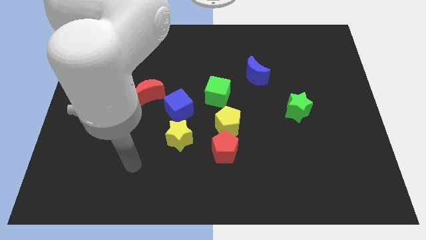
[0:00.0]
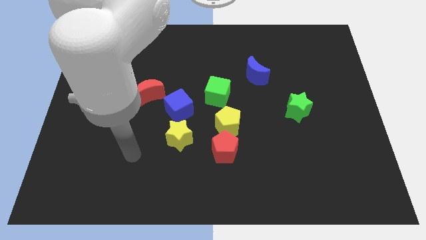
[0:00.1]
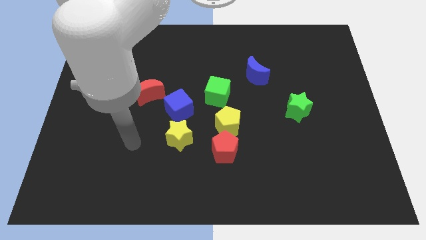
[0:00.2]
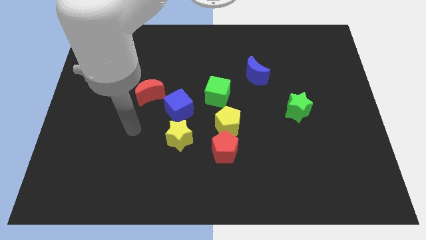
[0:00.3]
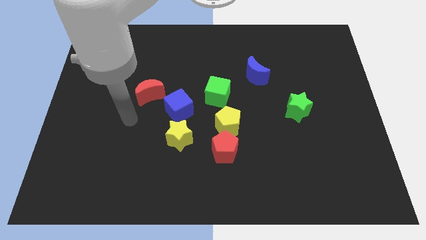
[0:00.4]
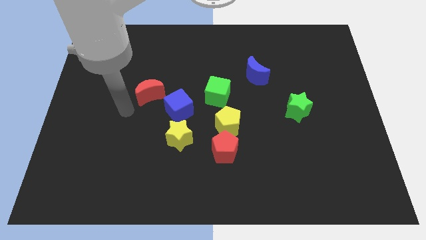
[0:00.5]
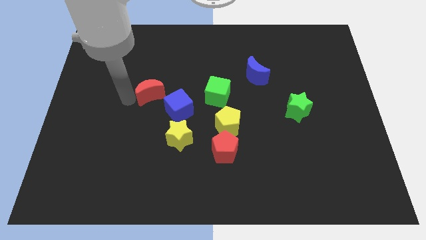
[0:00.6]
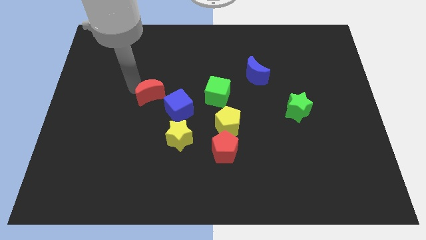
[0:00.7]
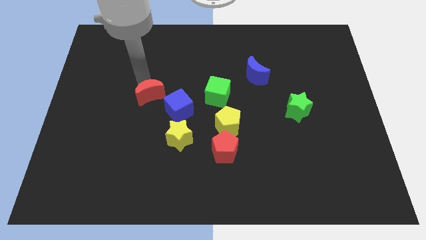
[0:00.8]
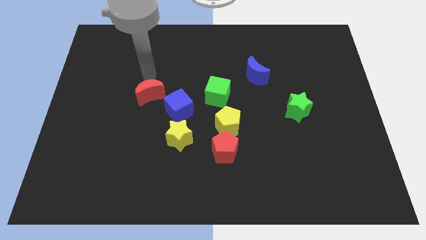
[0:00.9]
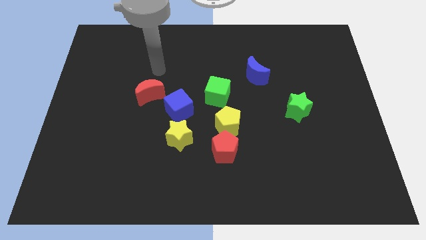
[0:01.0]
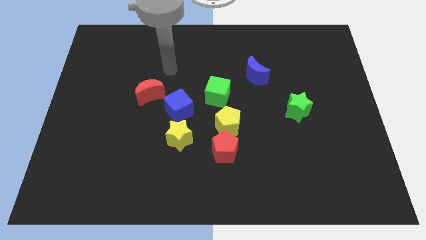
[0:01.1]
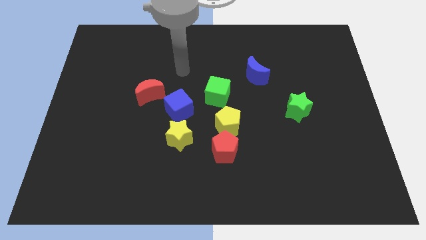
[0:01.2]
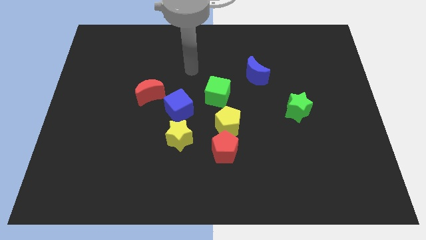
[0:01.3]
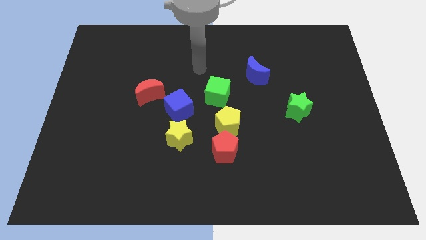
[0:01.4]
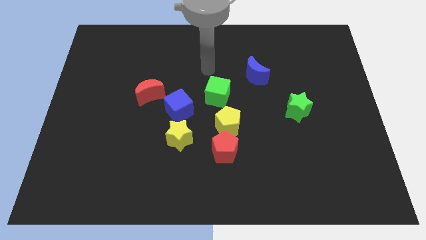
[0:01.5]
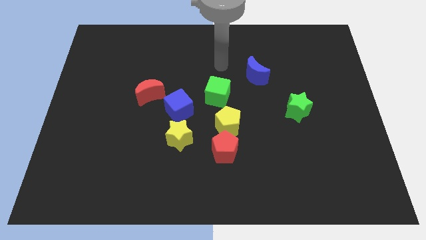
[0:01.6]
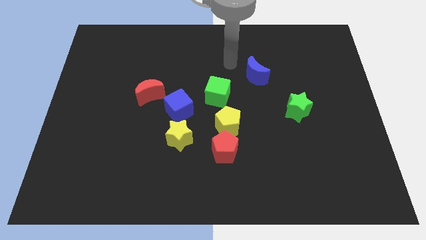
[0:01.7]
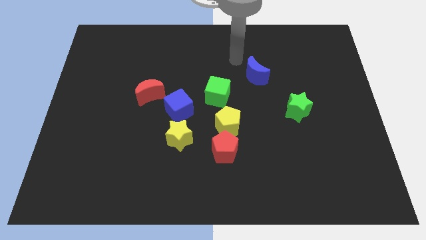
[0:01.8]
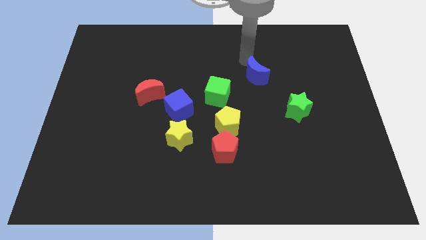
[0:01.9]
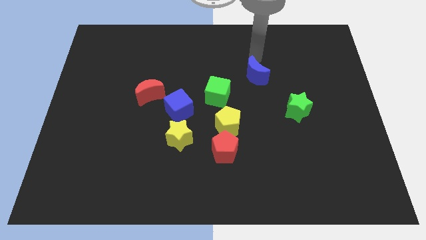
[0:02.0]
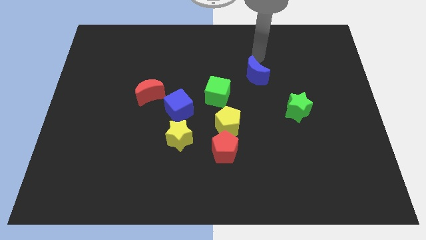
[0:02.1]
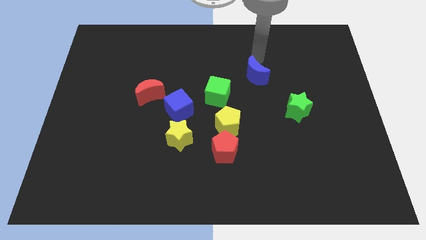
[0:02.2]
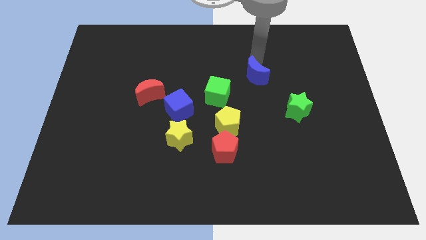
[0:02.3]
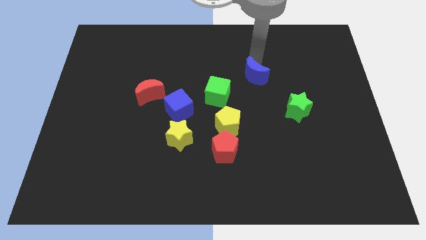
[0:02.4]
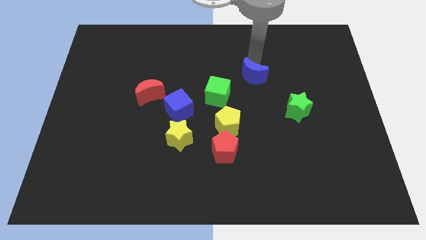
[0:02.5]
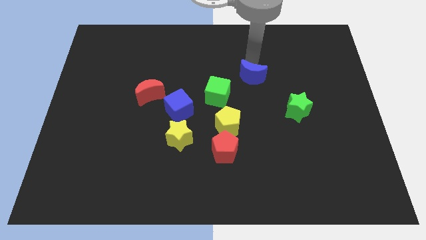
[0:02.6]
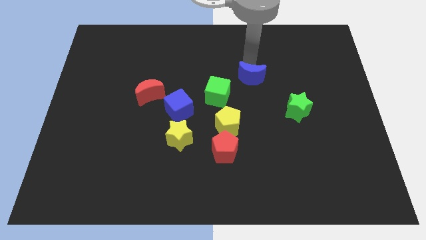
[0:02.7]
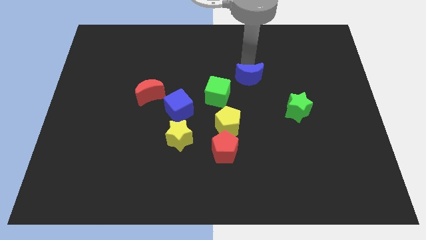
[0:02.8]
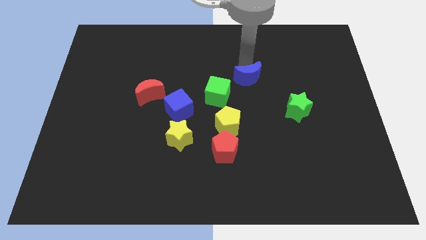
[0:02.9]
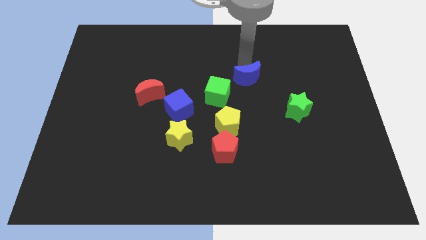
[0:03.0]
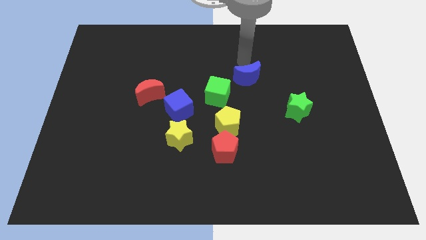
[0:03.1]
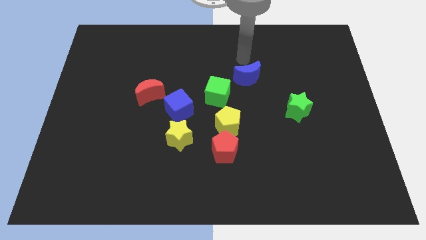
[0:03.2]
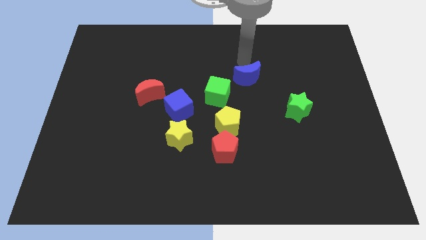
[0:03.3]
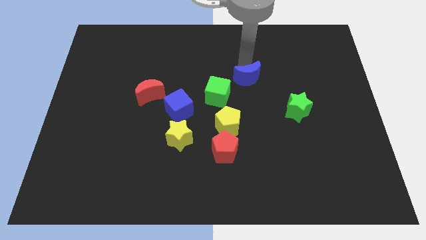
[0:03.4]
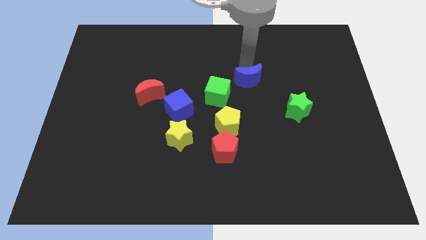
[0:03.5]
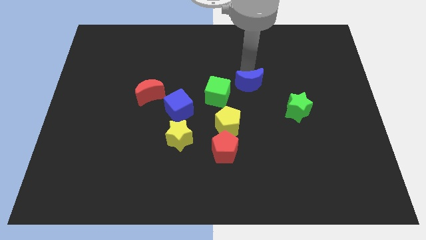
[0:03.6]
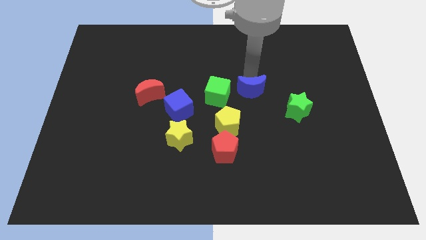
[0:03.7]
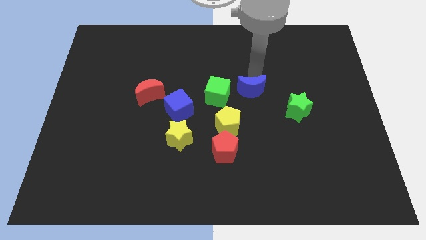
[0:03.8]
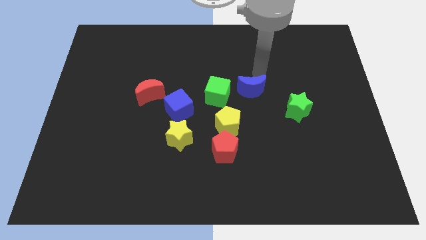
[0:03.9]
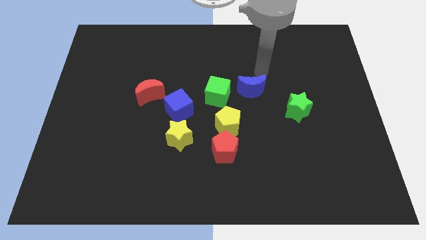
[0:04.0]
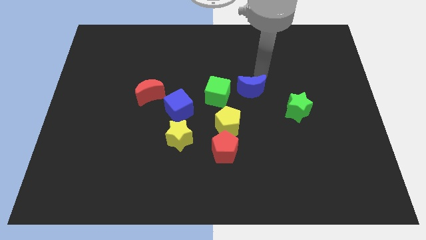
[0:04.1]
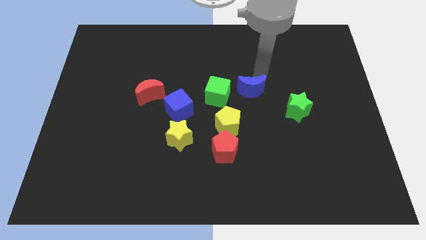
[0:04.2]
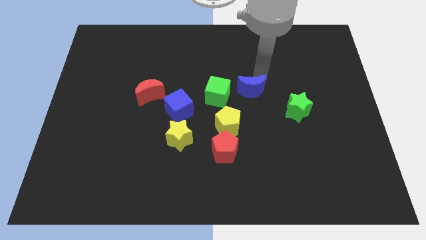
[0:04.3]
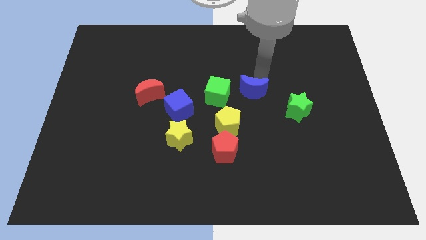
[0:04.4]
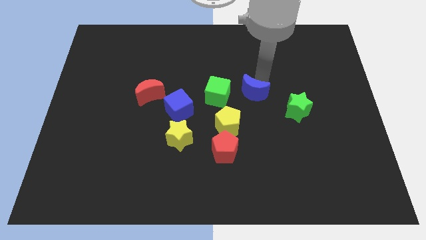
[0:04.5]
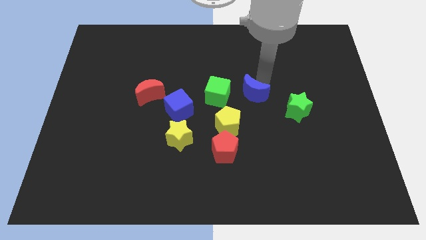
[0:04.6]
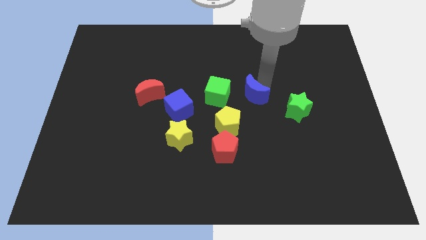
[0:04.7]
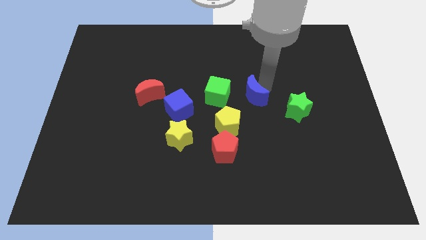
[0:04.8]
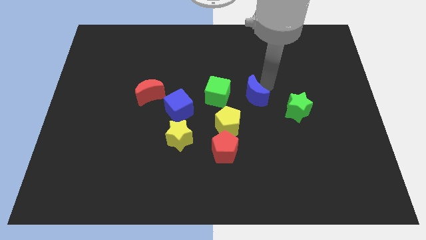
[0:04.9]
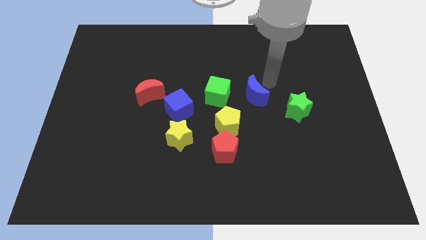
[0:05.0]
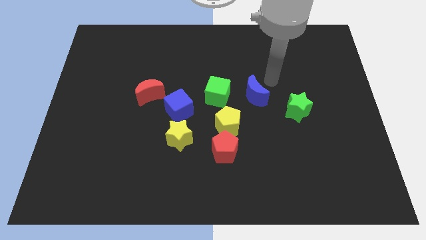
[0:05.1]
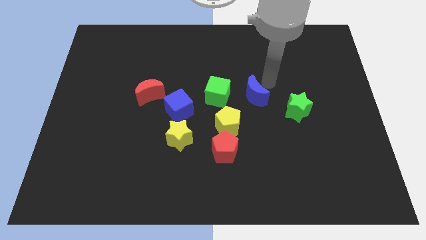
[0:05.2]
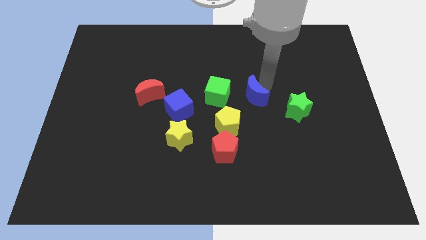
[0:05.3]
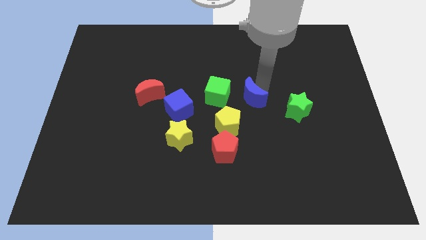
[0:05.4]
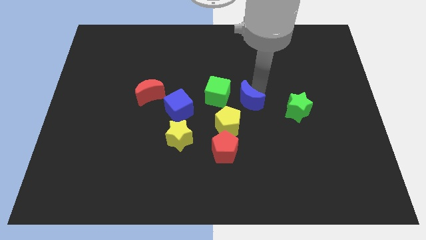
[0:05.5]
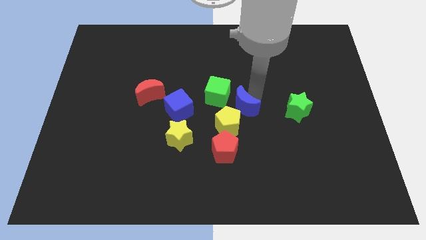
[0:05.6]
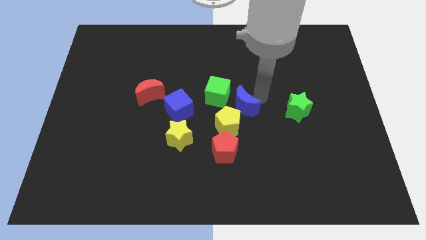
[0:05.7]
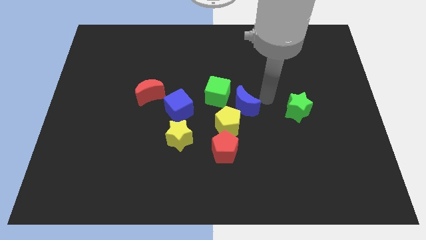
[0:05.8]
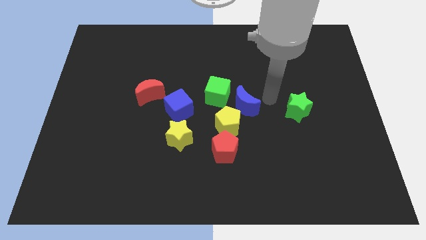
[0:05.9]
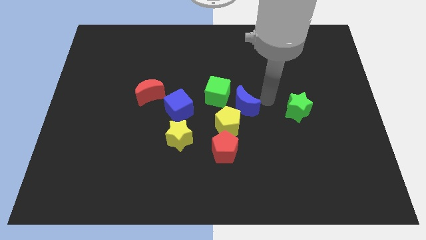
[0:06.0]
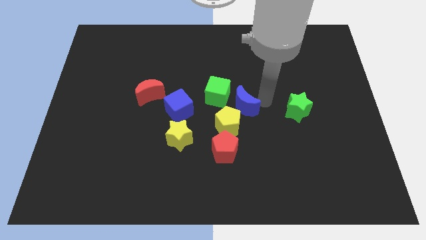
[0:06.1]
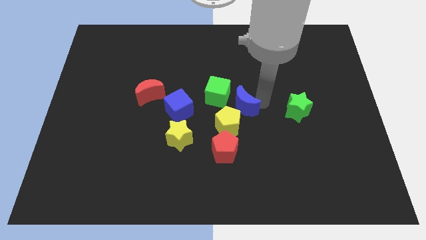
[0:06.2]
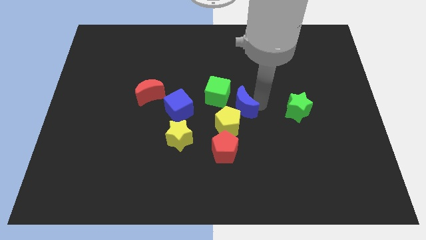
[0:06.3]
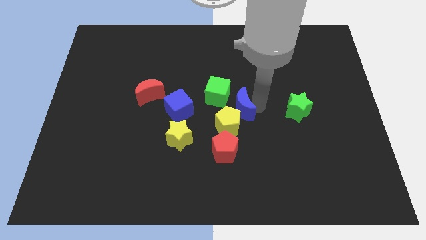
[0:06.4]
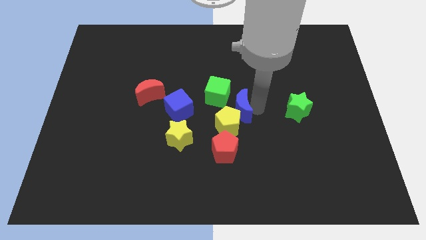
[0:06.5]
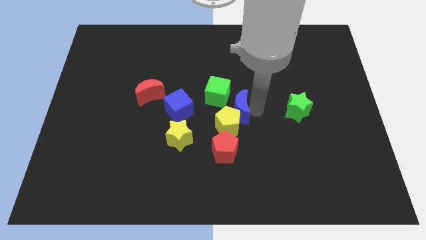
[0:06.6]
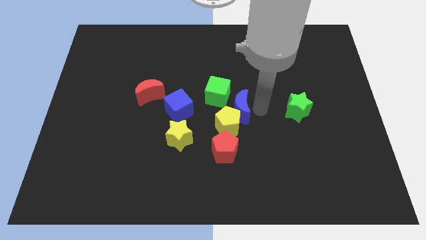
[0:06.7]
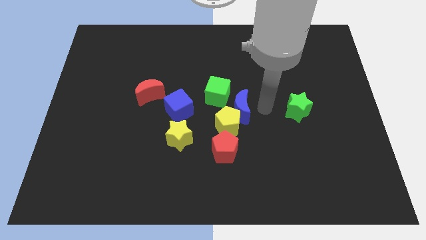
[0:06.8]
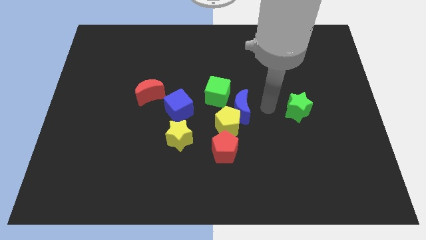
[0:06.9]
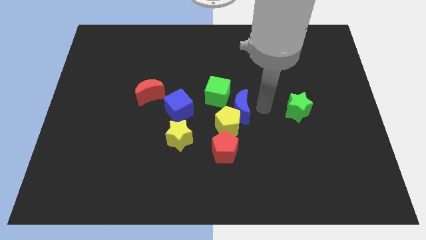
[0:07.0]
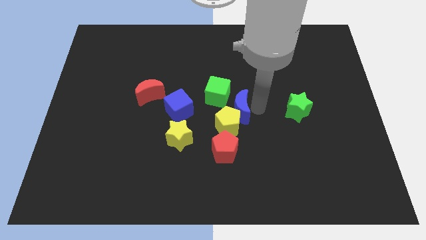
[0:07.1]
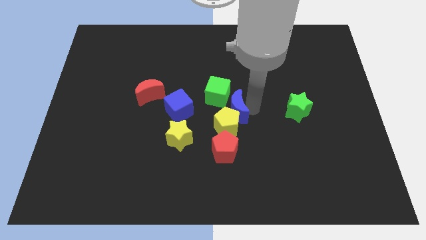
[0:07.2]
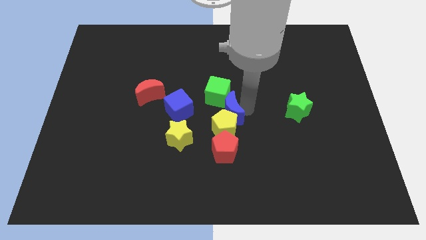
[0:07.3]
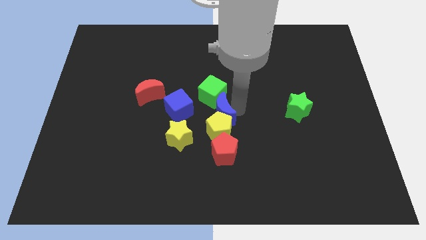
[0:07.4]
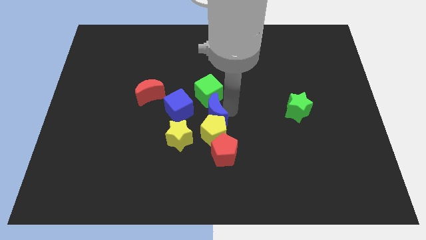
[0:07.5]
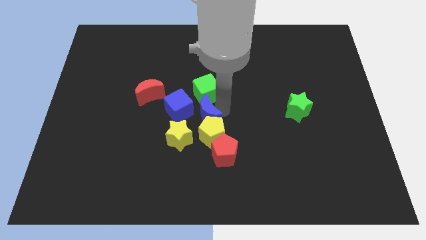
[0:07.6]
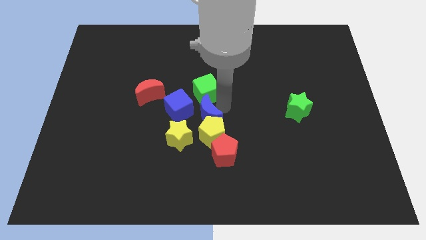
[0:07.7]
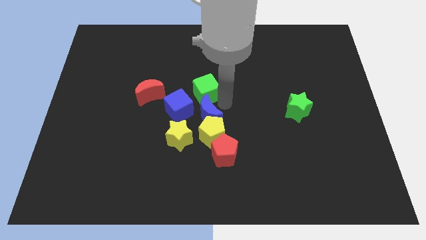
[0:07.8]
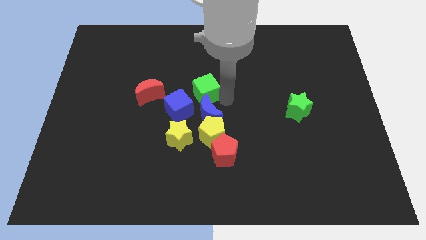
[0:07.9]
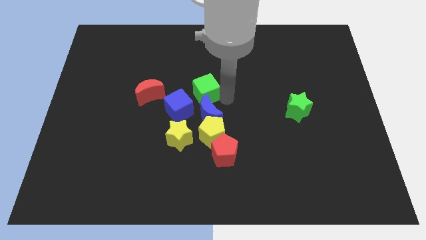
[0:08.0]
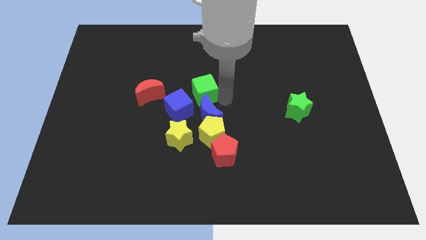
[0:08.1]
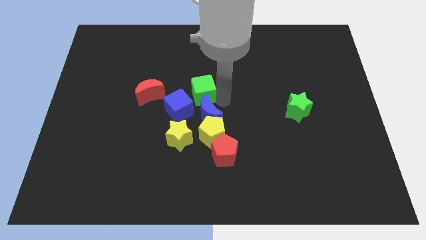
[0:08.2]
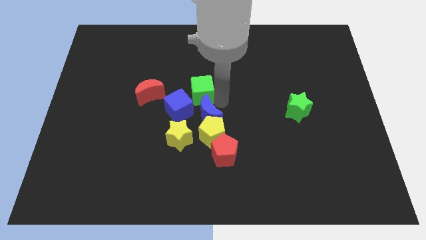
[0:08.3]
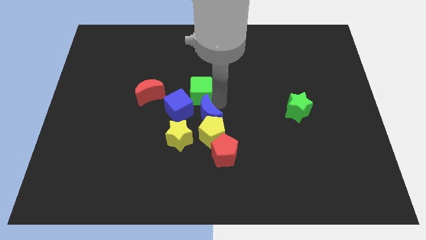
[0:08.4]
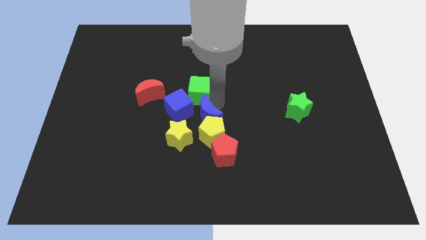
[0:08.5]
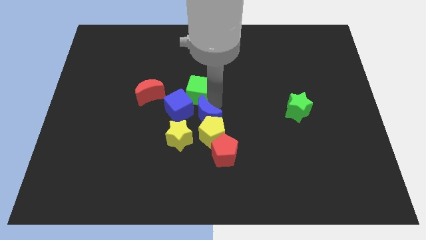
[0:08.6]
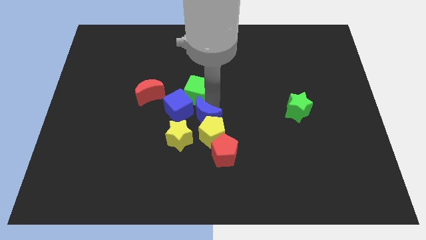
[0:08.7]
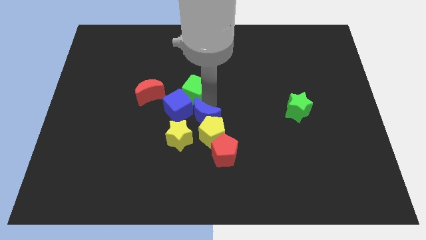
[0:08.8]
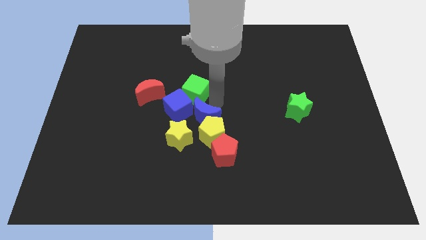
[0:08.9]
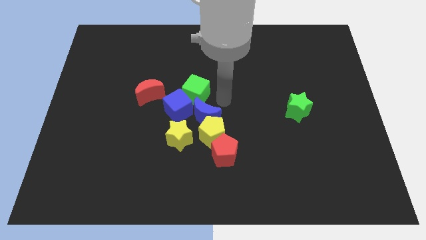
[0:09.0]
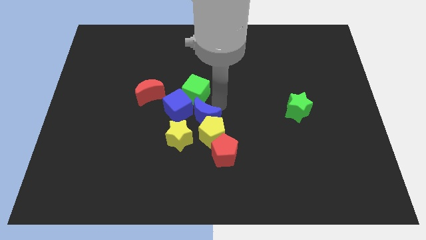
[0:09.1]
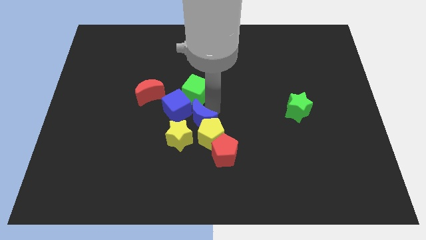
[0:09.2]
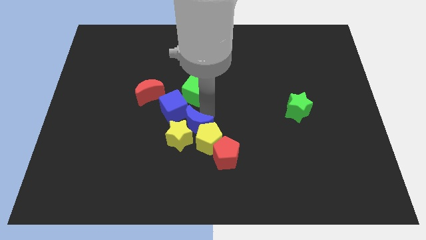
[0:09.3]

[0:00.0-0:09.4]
put the blue moon close to the yellow star
